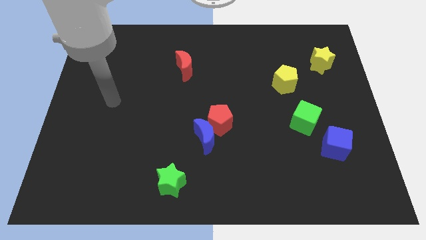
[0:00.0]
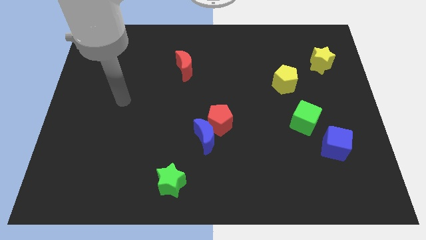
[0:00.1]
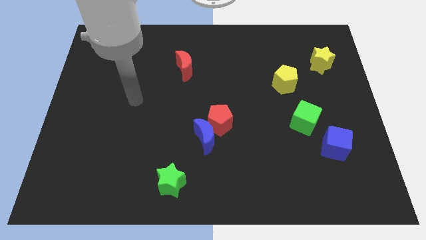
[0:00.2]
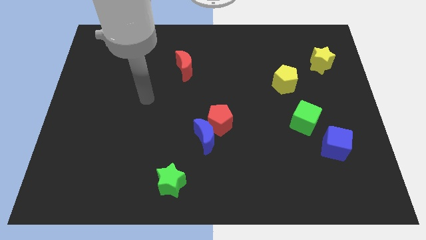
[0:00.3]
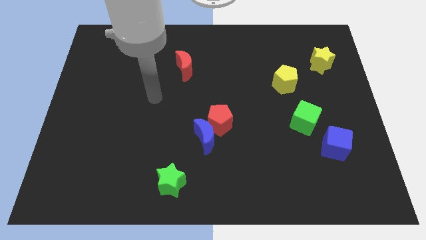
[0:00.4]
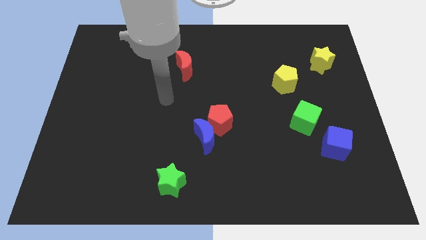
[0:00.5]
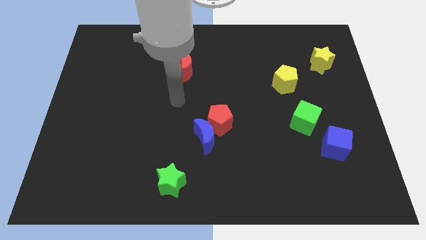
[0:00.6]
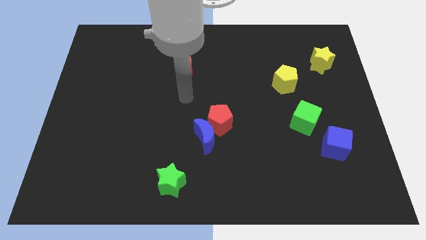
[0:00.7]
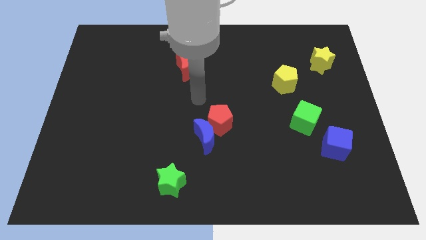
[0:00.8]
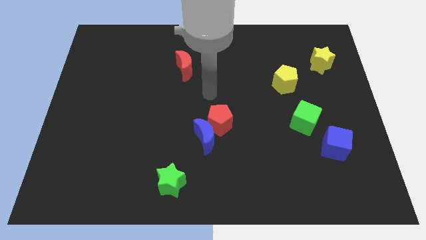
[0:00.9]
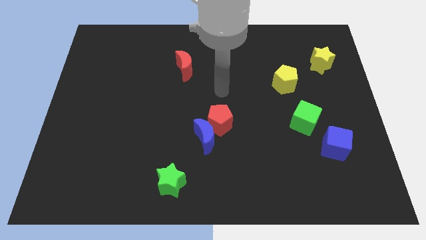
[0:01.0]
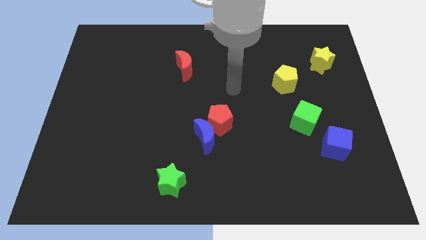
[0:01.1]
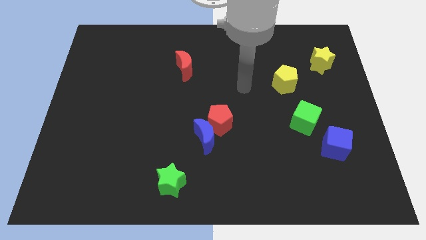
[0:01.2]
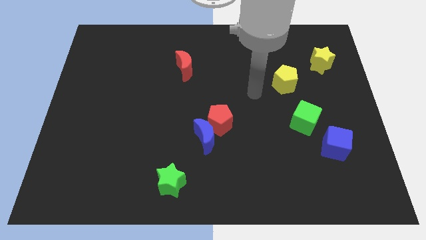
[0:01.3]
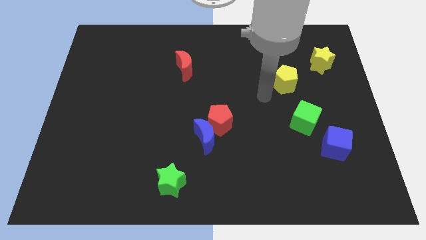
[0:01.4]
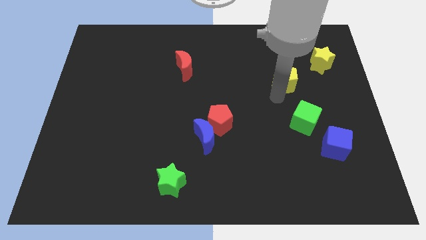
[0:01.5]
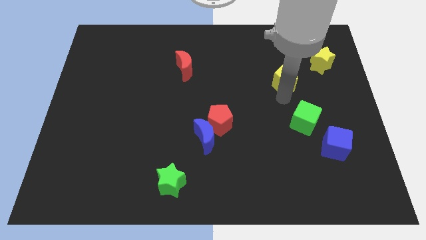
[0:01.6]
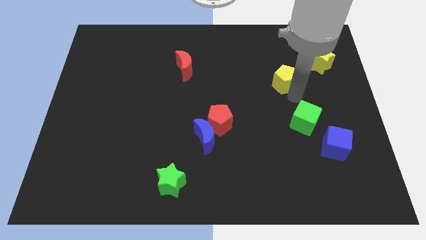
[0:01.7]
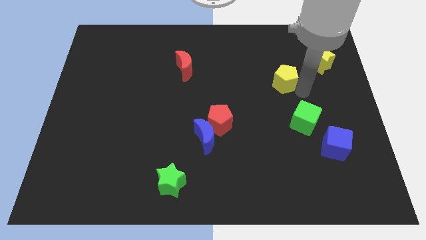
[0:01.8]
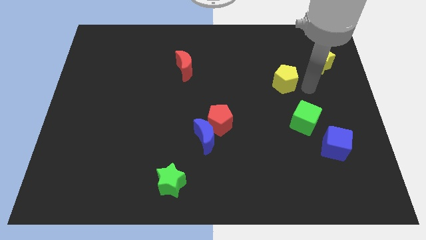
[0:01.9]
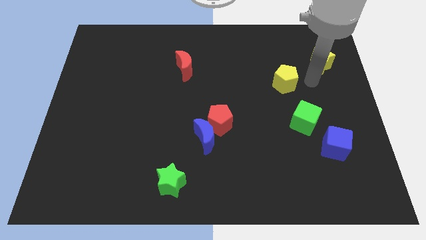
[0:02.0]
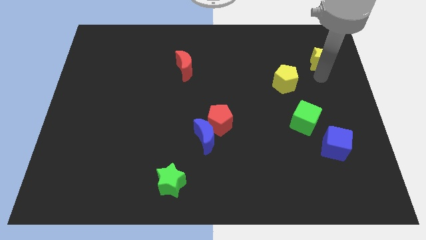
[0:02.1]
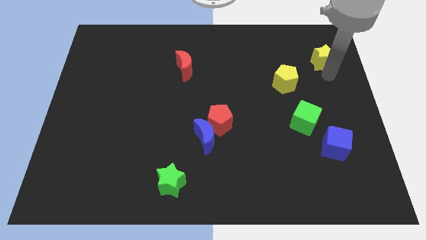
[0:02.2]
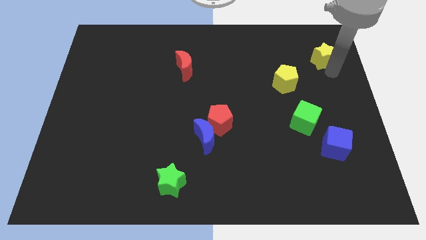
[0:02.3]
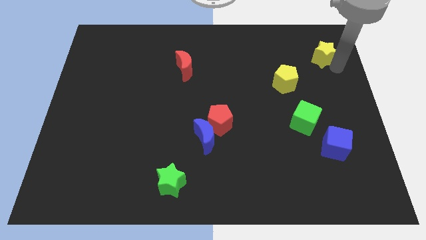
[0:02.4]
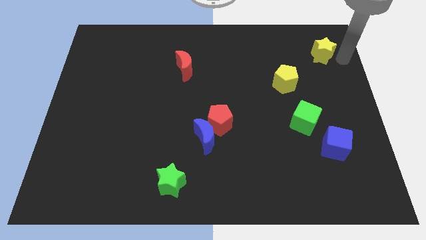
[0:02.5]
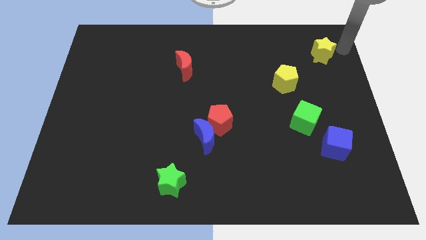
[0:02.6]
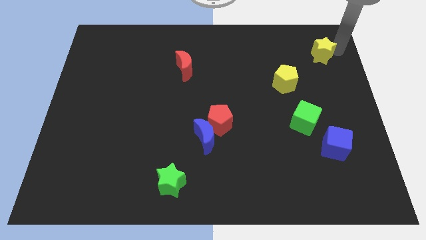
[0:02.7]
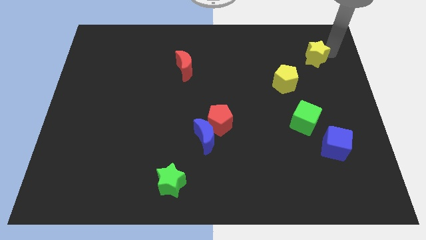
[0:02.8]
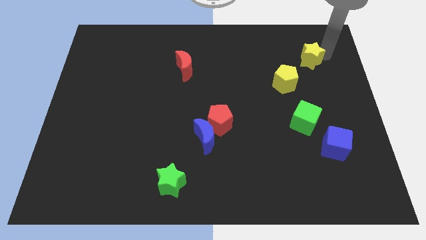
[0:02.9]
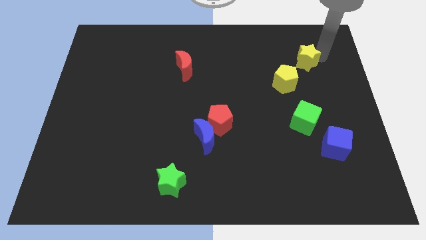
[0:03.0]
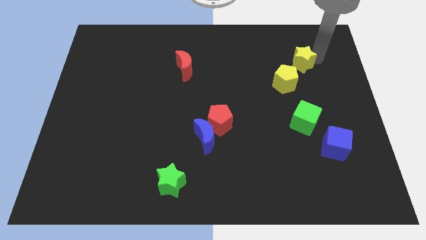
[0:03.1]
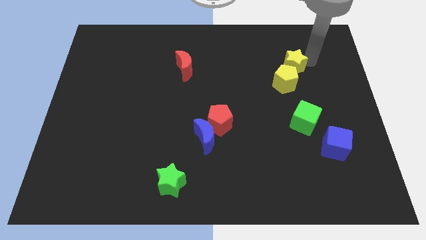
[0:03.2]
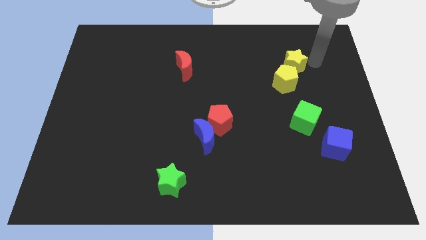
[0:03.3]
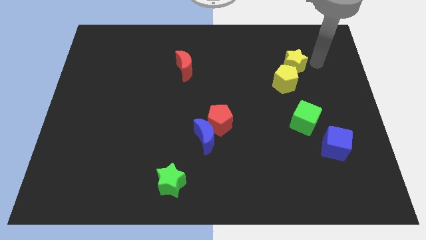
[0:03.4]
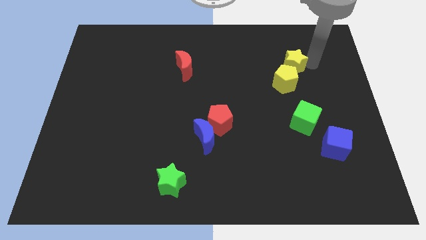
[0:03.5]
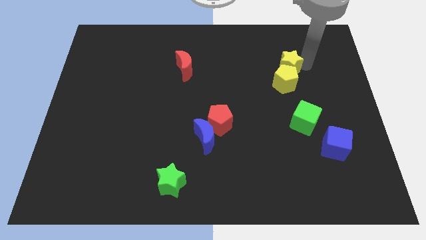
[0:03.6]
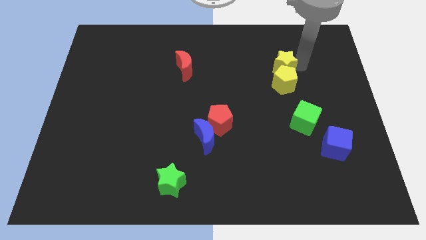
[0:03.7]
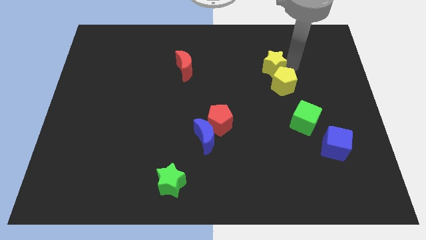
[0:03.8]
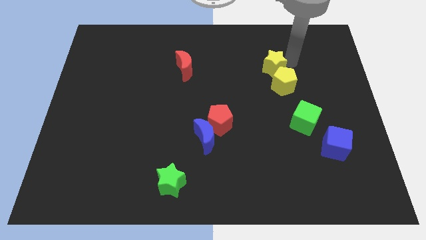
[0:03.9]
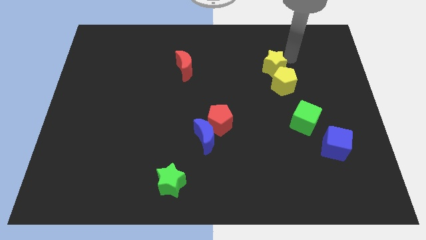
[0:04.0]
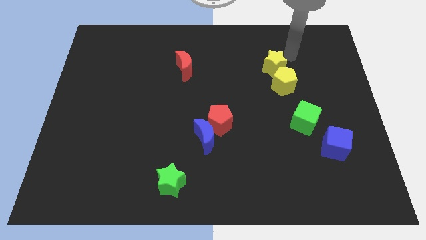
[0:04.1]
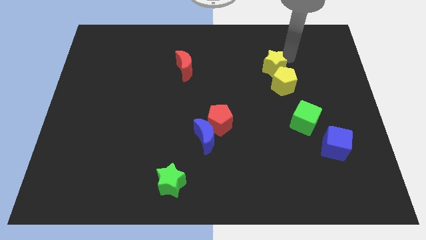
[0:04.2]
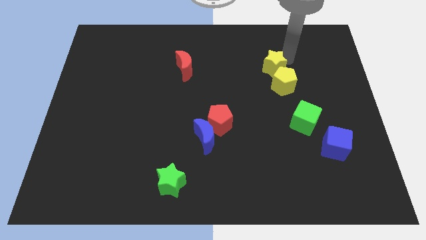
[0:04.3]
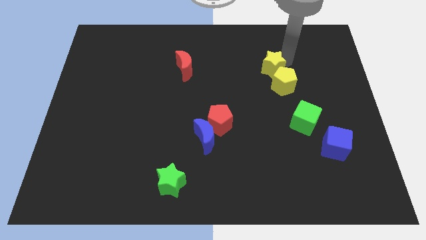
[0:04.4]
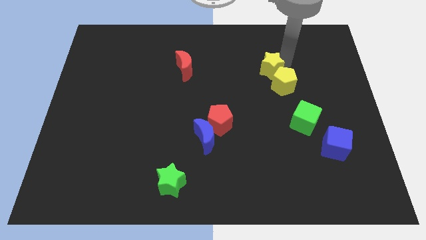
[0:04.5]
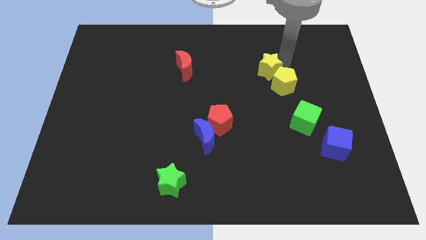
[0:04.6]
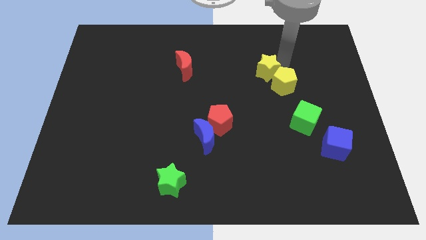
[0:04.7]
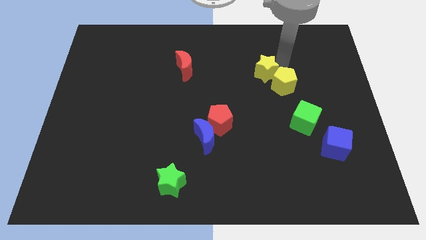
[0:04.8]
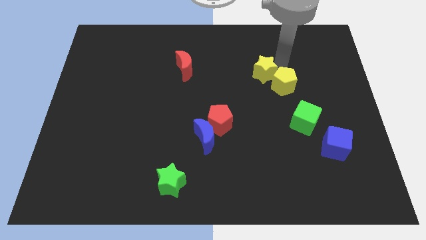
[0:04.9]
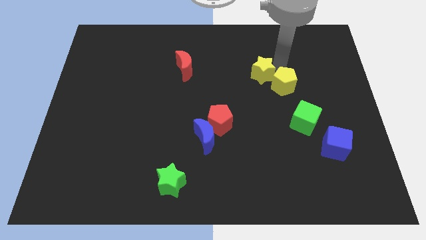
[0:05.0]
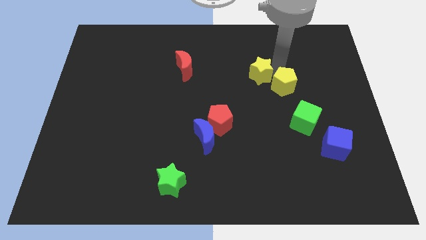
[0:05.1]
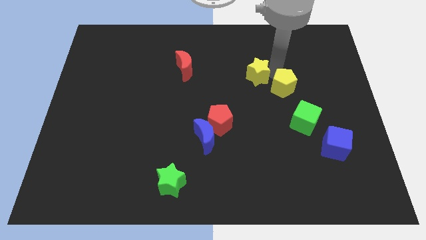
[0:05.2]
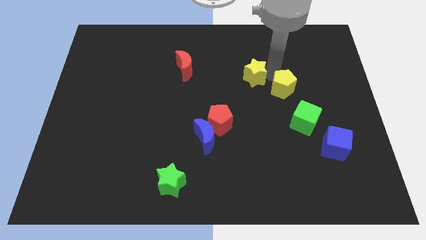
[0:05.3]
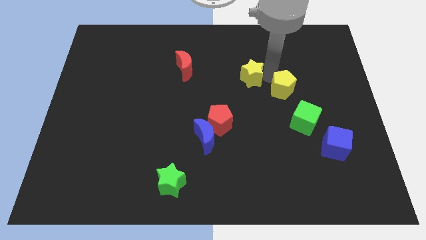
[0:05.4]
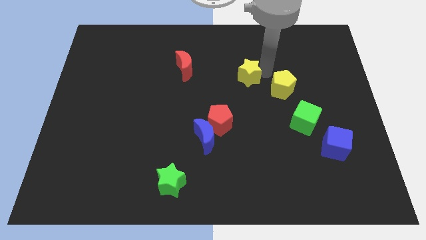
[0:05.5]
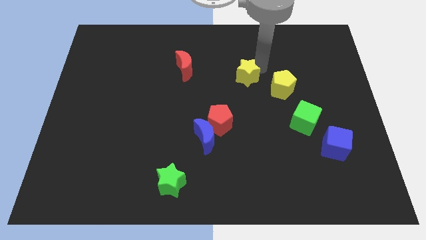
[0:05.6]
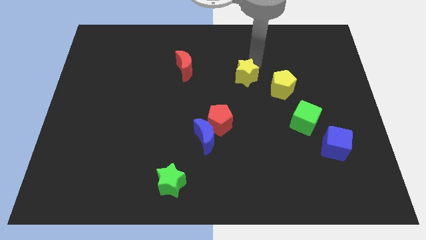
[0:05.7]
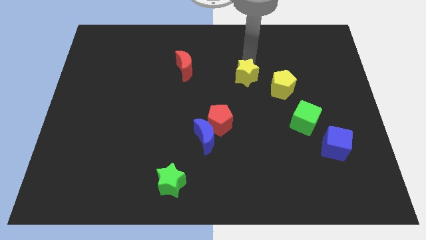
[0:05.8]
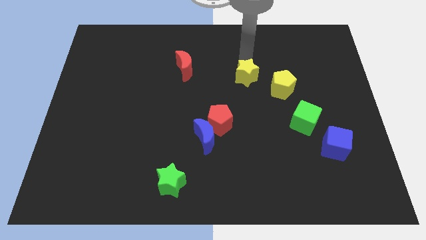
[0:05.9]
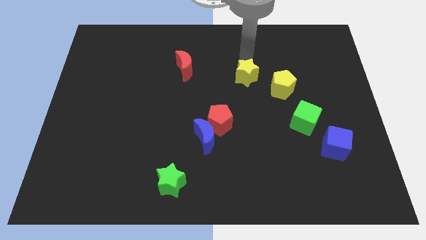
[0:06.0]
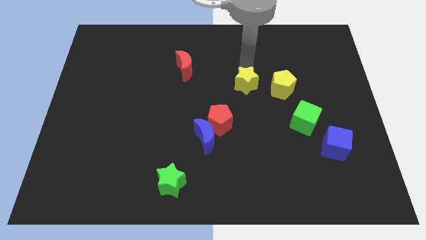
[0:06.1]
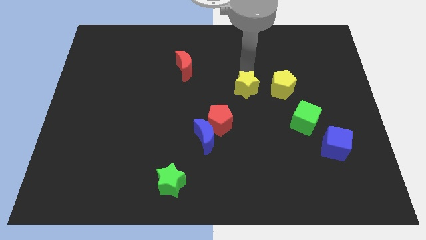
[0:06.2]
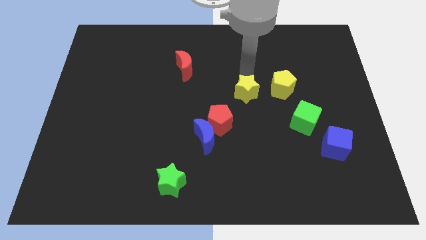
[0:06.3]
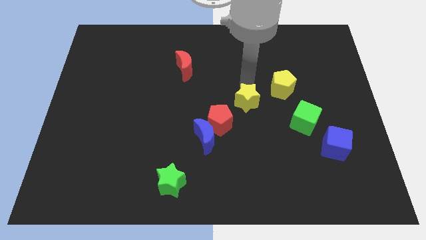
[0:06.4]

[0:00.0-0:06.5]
move the yellow star diagonally downwards and to the left

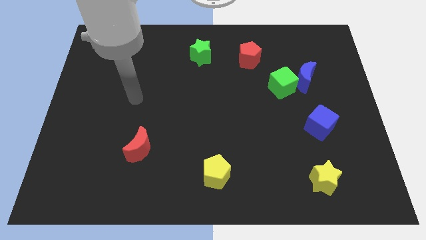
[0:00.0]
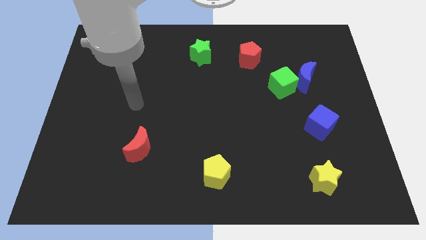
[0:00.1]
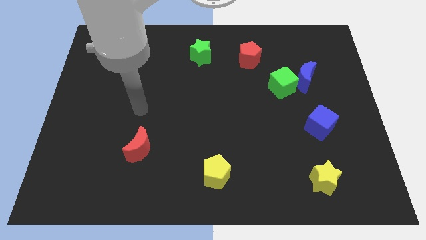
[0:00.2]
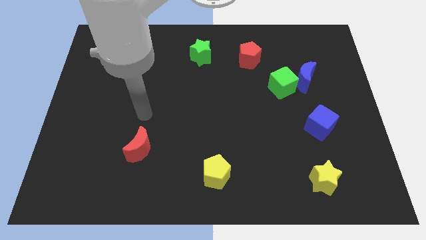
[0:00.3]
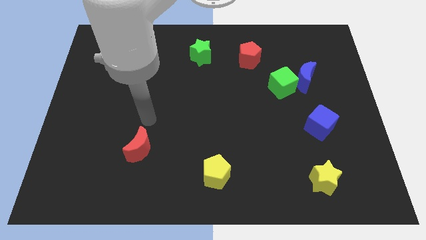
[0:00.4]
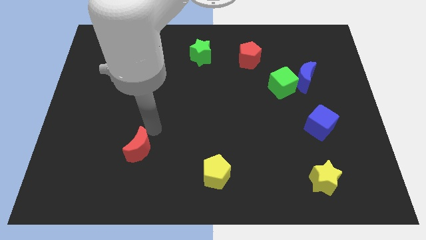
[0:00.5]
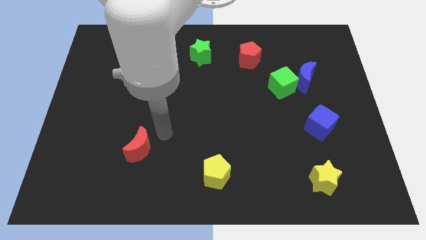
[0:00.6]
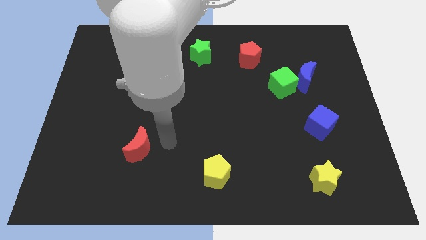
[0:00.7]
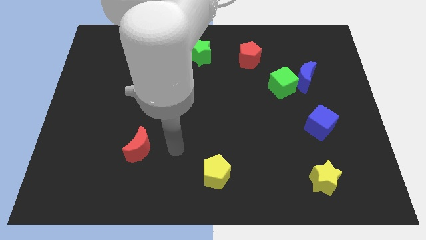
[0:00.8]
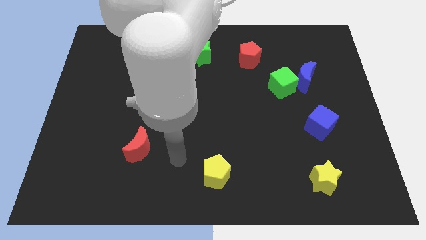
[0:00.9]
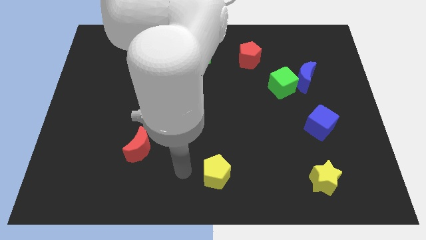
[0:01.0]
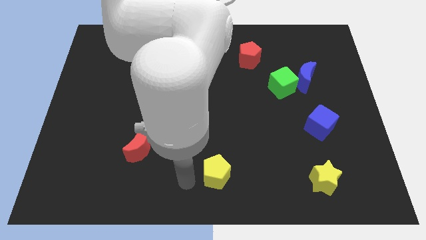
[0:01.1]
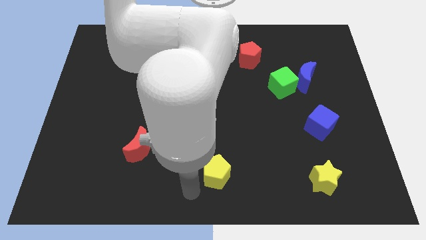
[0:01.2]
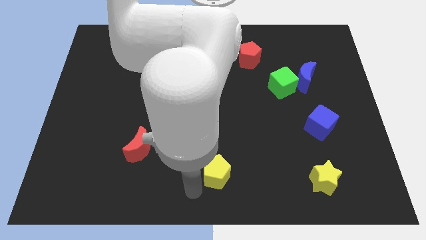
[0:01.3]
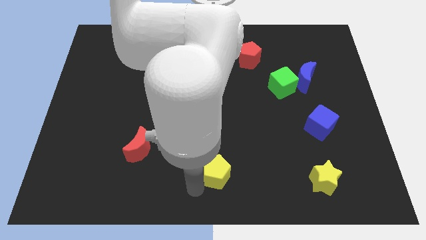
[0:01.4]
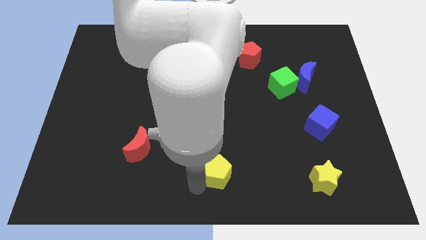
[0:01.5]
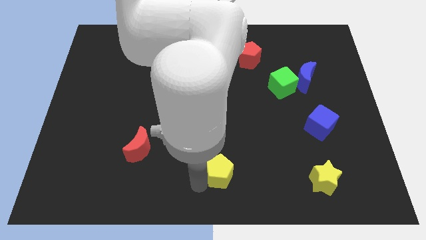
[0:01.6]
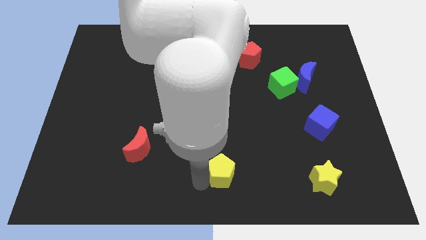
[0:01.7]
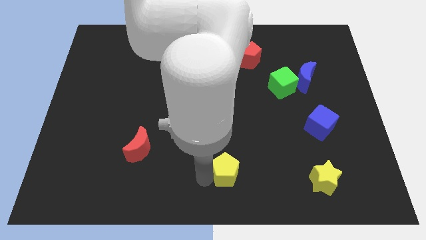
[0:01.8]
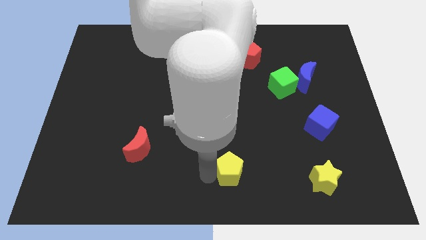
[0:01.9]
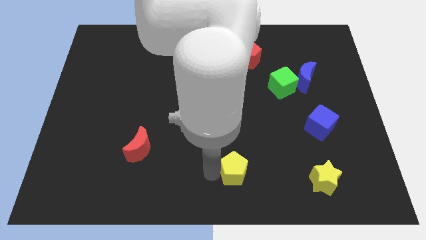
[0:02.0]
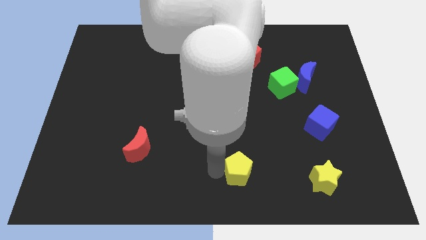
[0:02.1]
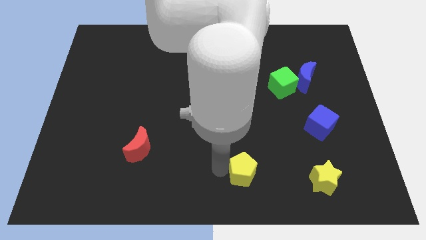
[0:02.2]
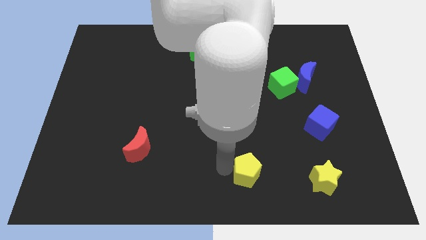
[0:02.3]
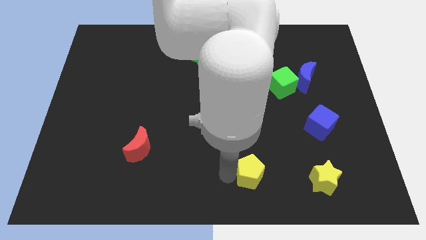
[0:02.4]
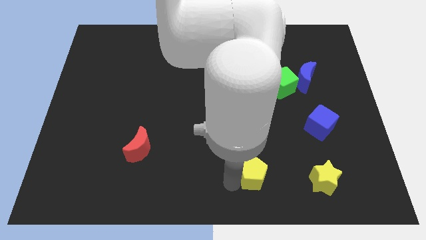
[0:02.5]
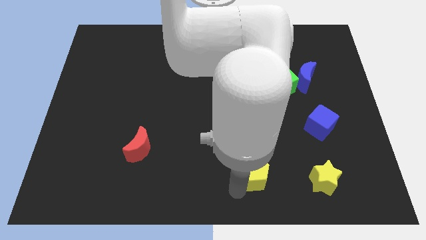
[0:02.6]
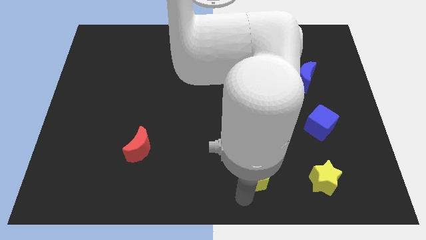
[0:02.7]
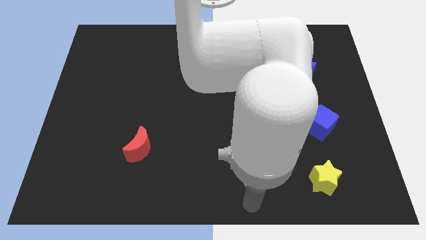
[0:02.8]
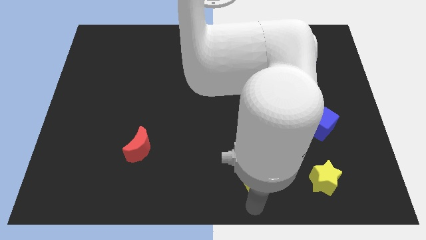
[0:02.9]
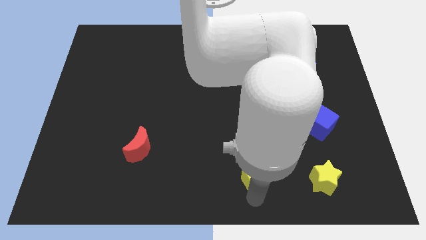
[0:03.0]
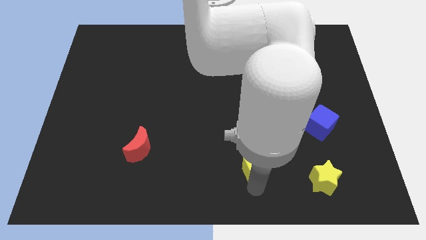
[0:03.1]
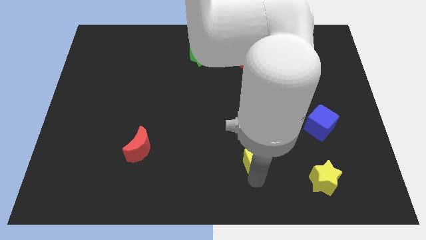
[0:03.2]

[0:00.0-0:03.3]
slightly slide the yellow pentagon upwards and to the right
